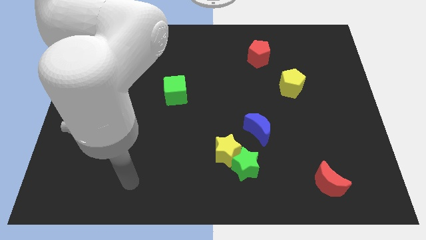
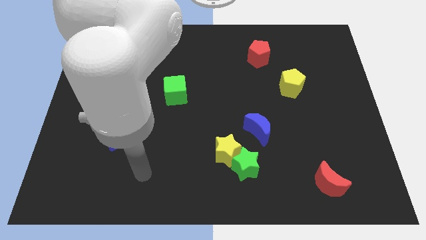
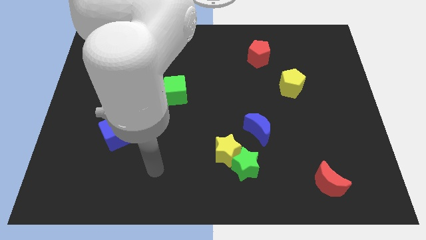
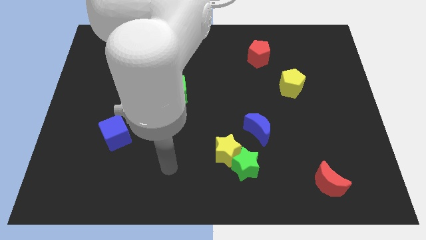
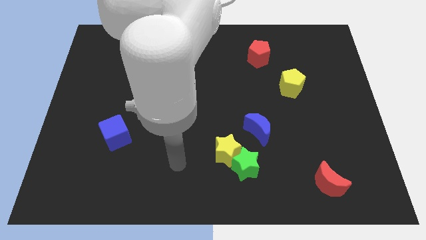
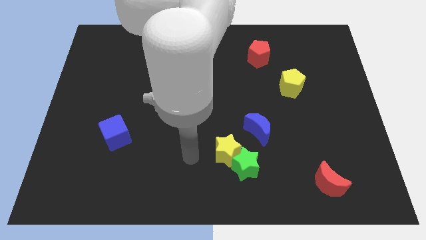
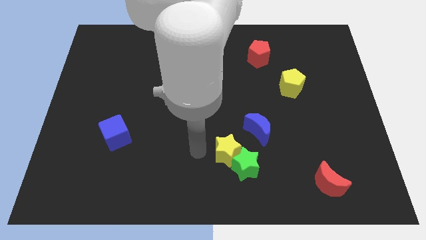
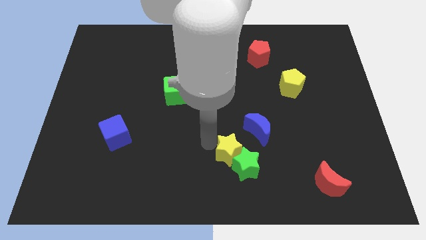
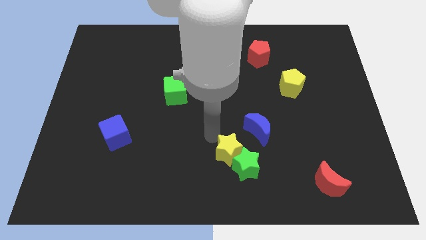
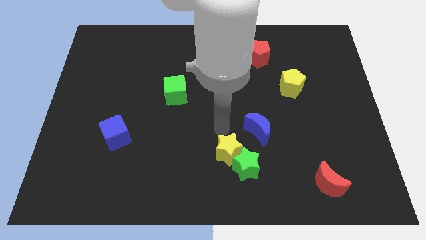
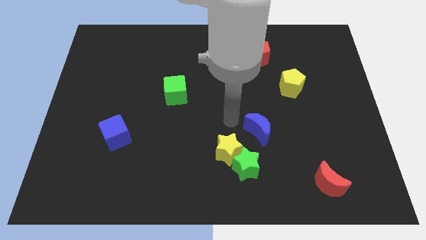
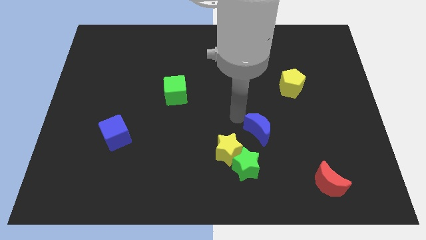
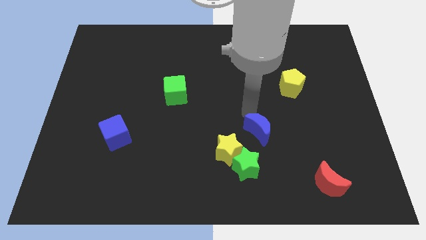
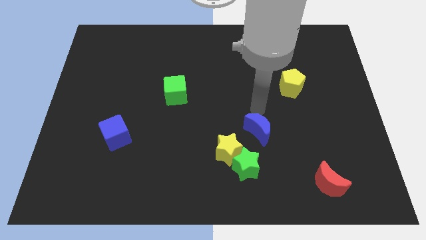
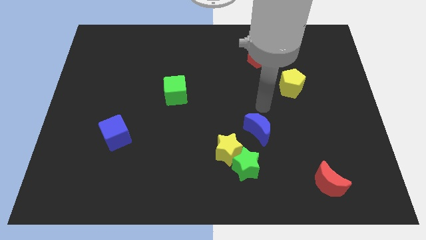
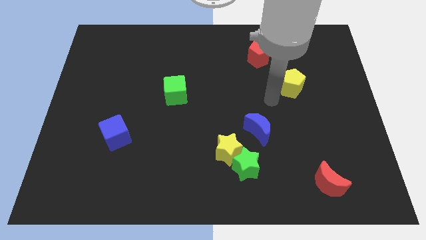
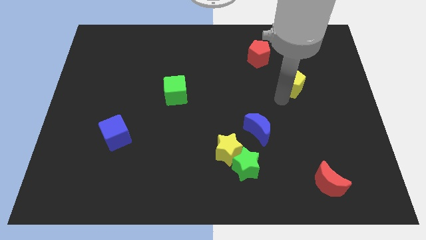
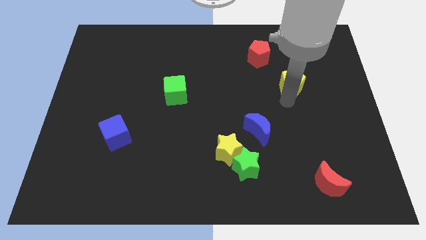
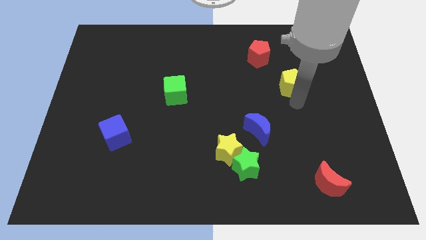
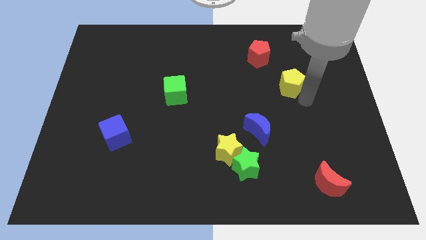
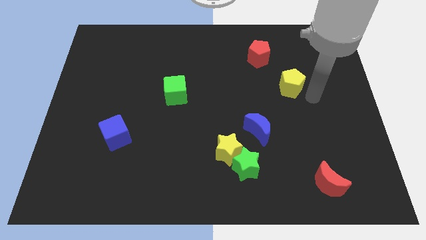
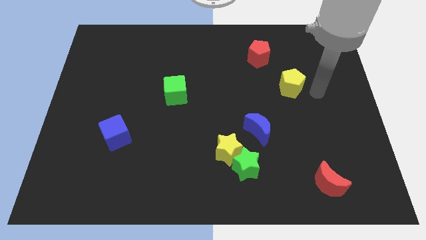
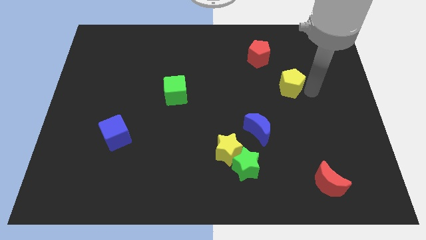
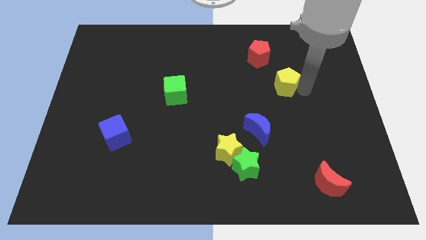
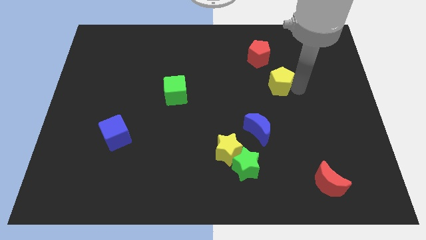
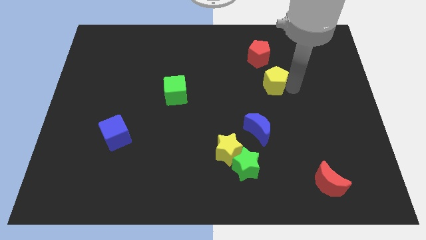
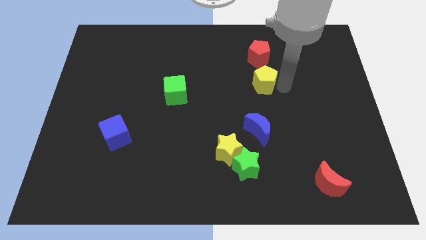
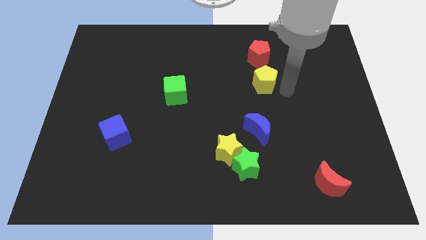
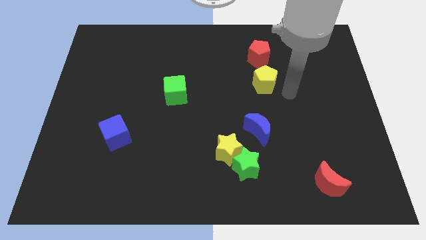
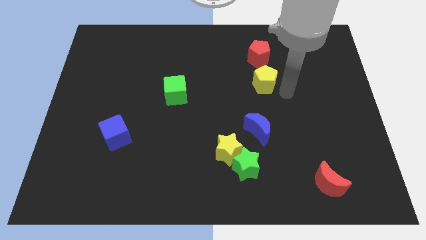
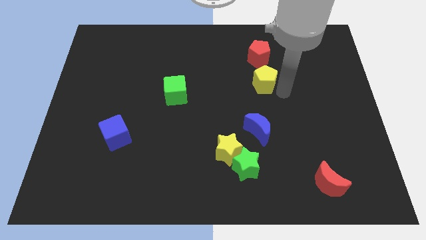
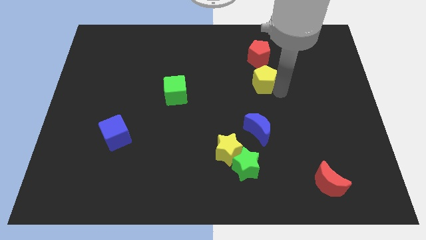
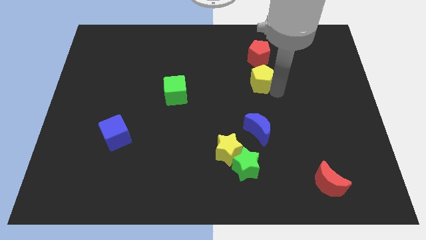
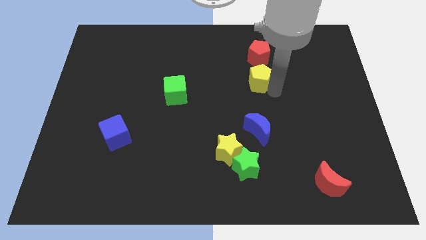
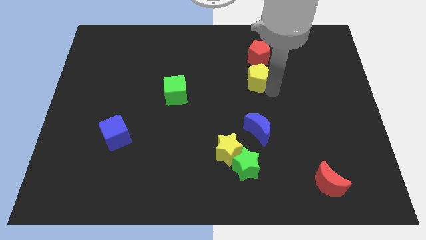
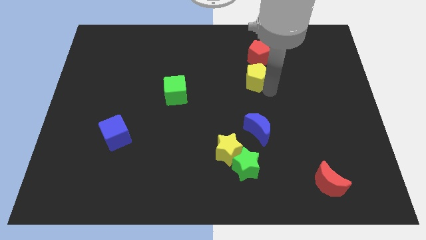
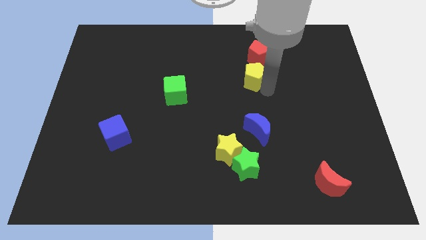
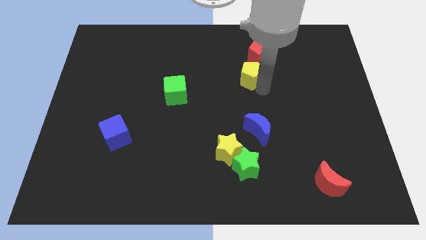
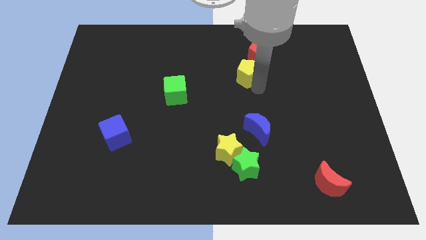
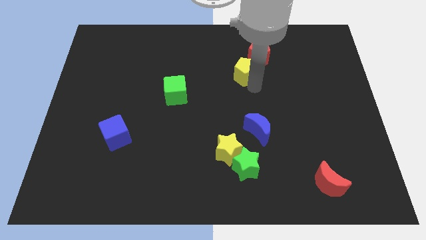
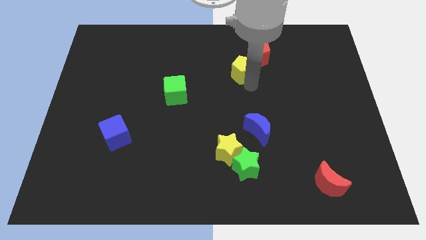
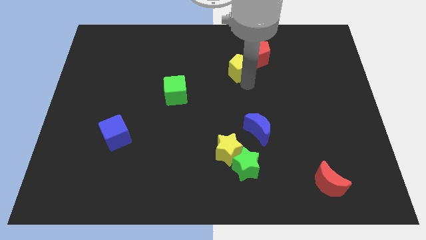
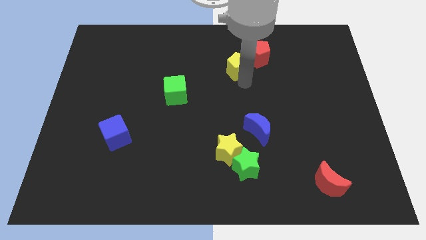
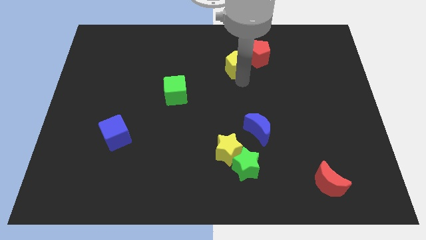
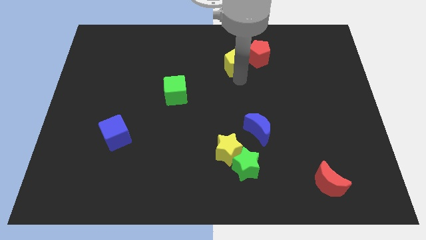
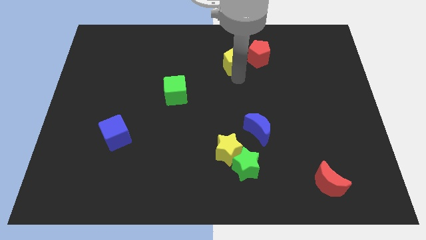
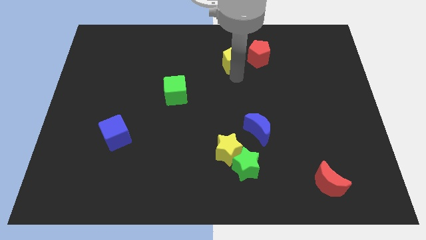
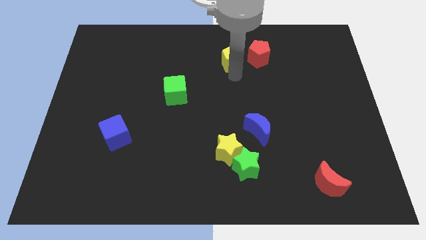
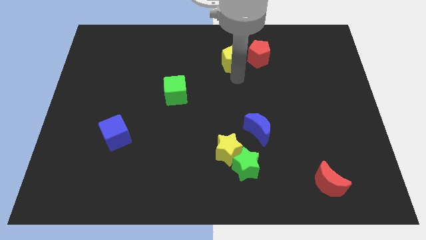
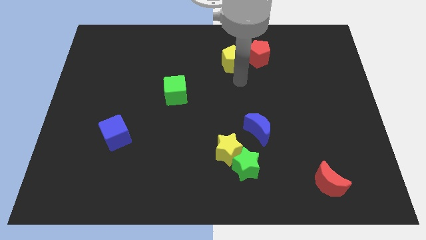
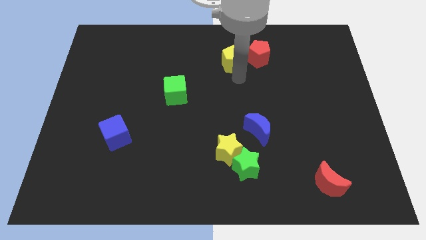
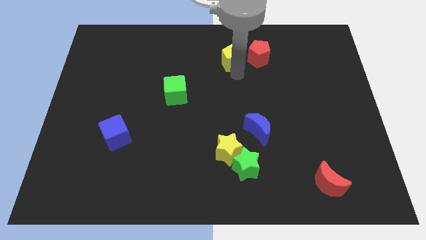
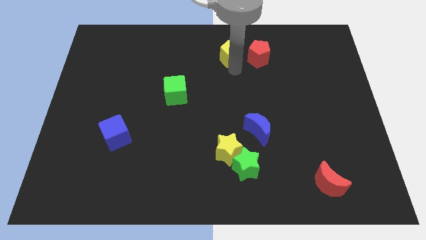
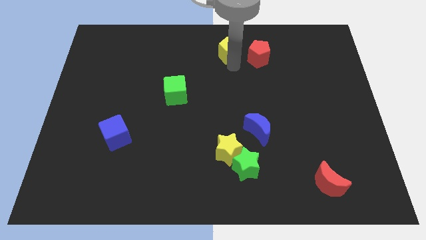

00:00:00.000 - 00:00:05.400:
move the yellow pentagon to the top

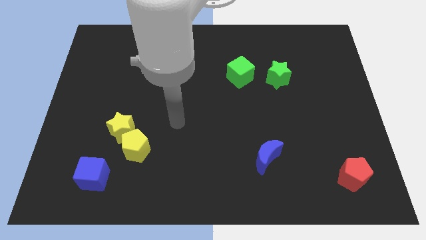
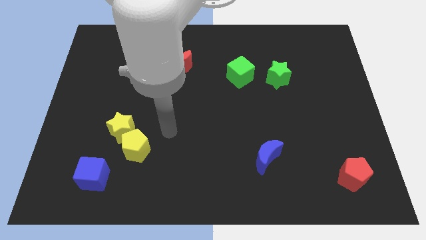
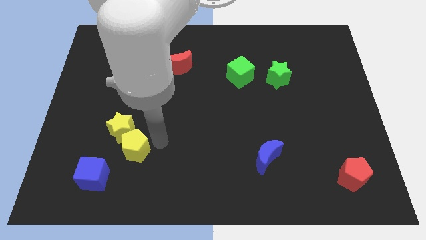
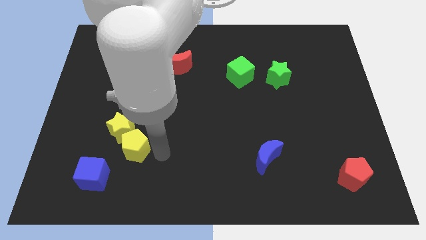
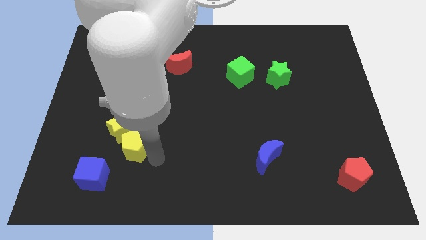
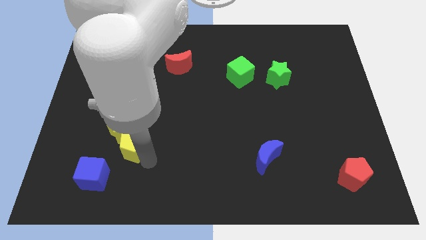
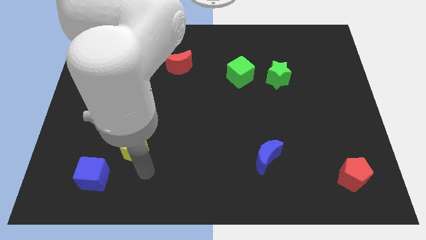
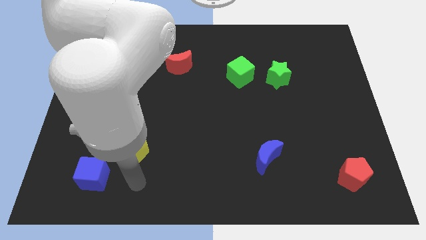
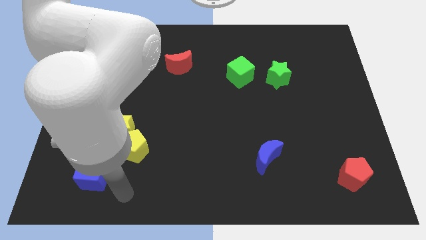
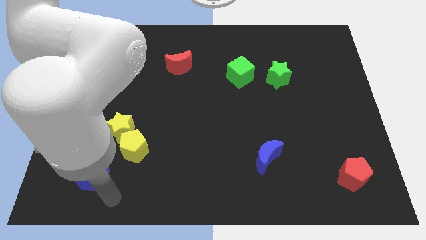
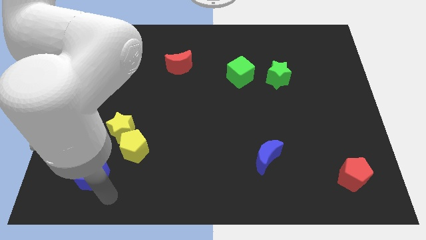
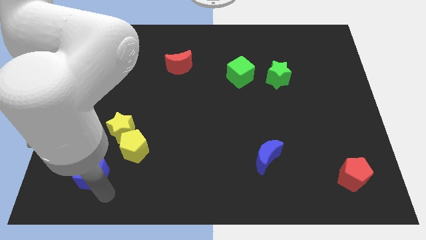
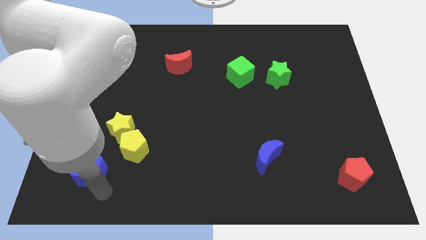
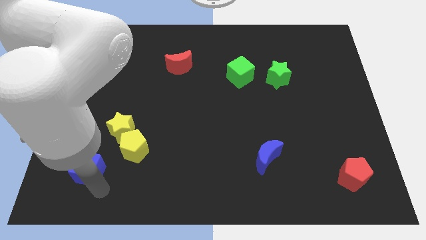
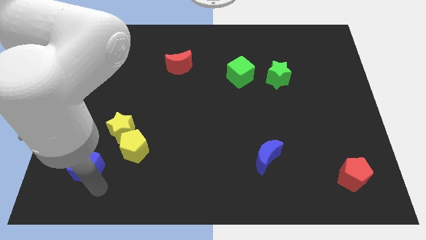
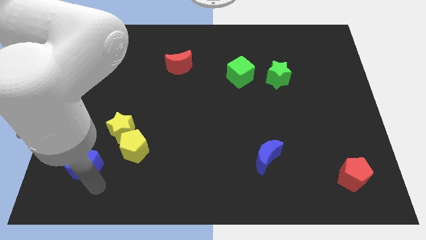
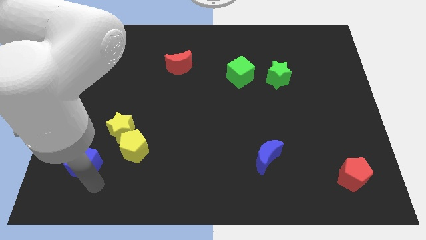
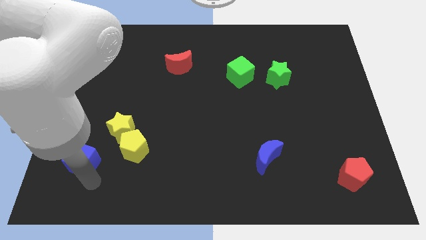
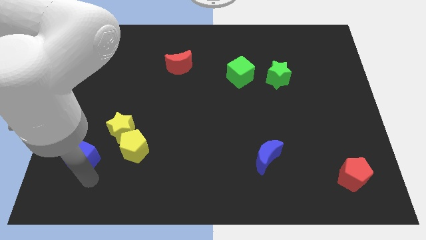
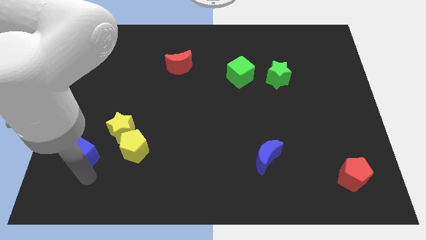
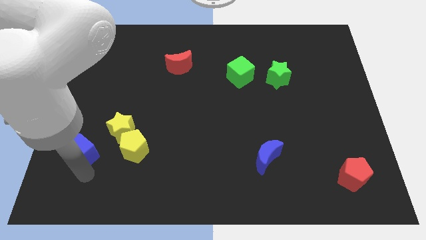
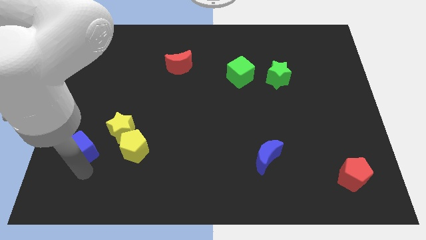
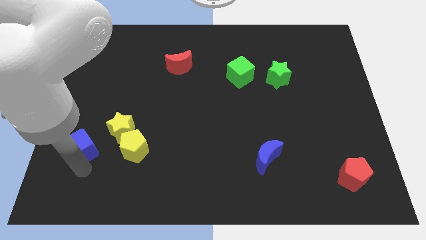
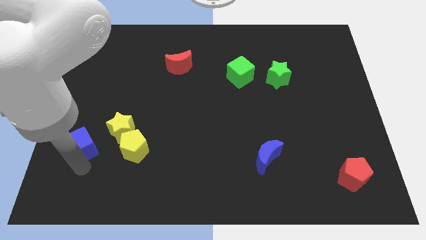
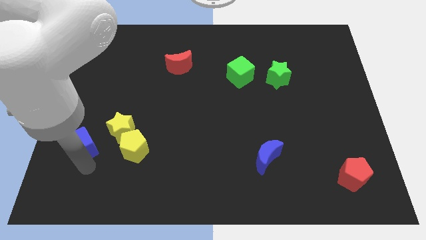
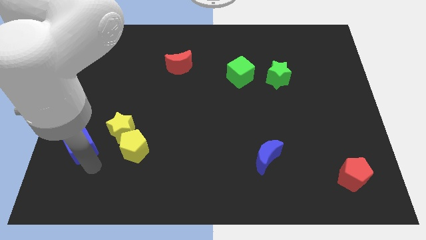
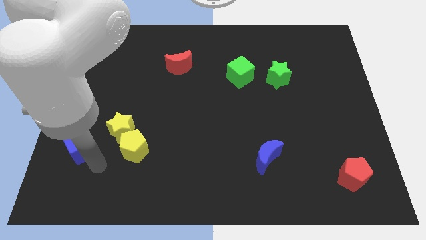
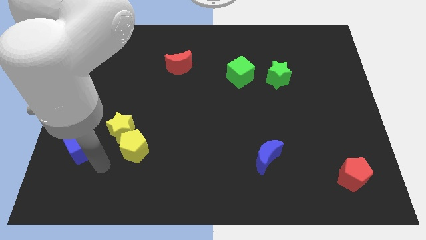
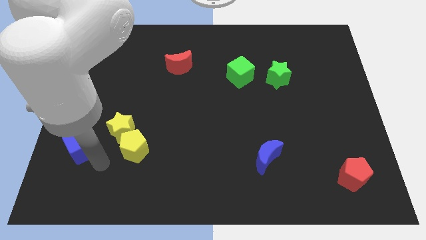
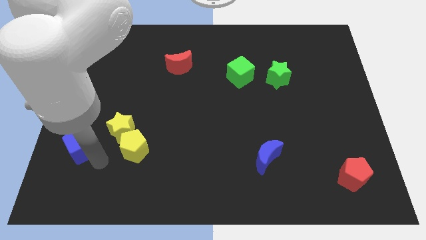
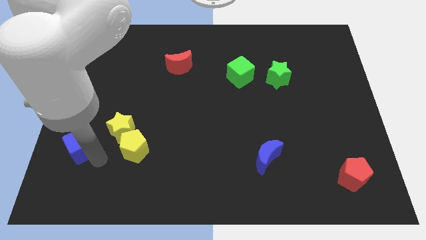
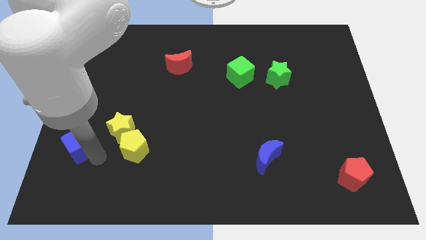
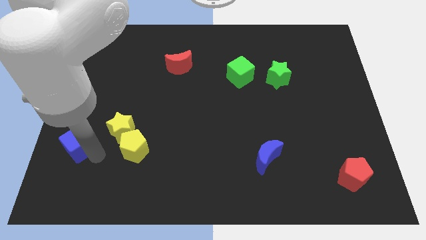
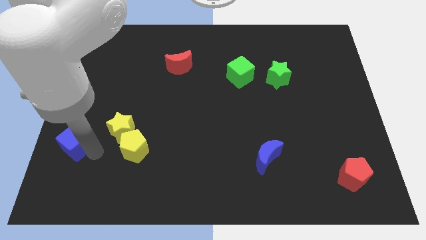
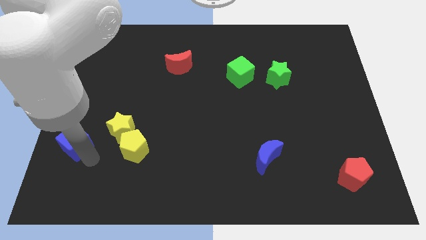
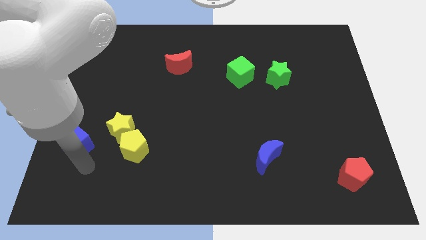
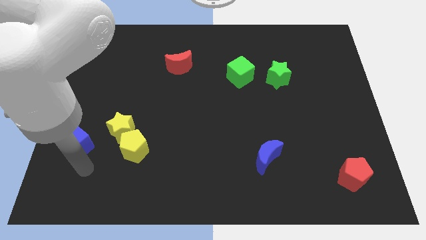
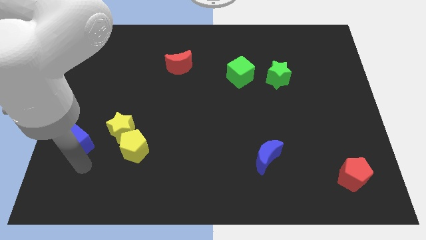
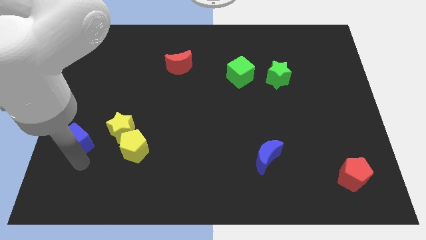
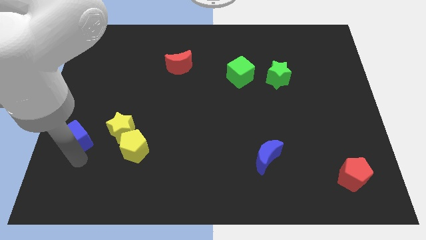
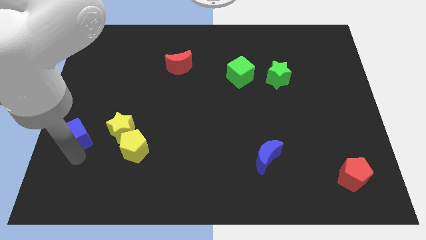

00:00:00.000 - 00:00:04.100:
push the blue cube to the left side
